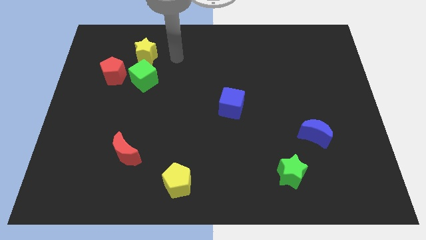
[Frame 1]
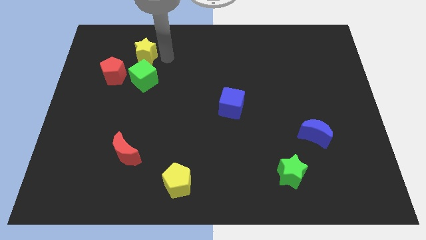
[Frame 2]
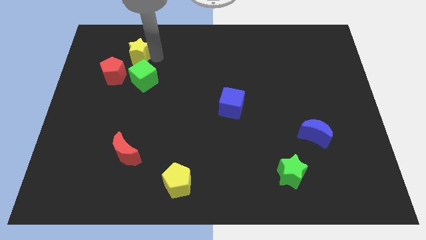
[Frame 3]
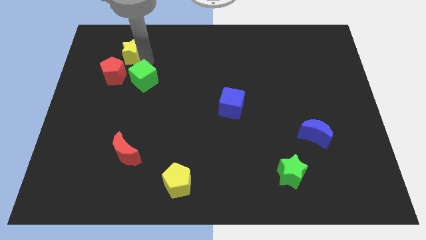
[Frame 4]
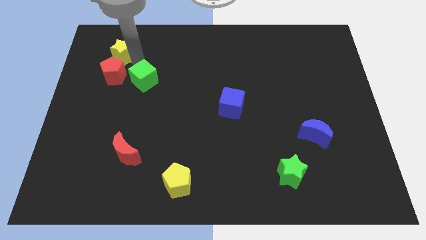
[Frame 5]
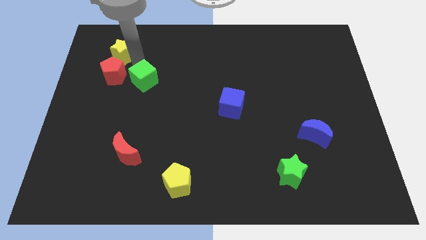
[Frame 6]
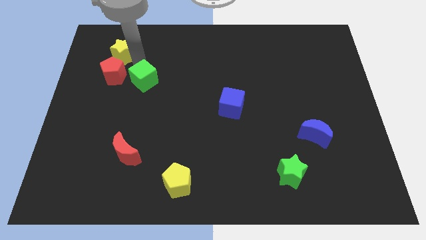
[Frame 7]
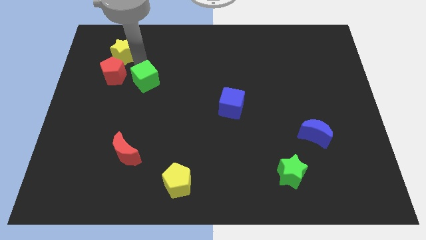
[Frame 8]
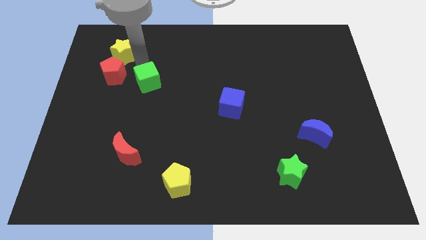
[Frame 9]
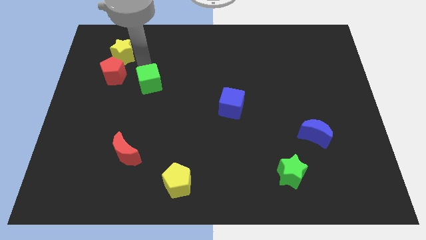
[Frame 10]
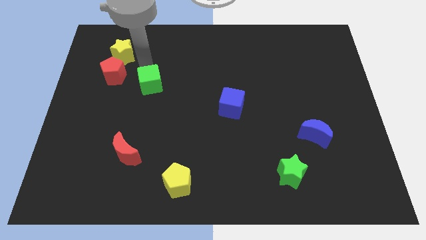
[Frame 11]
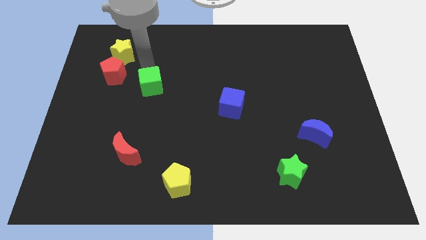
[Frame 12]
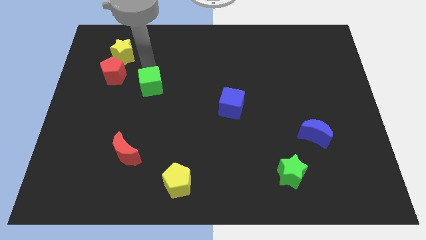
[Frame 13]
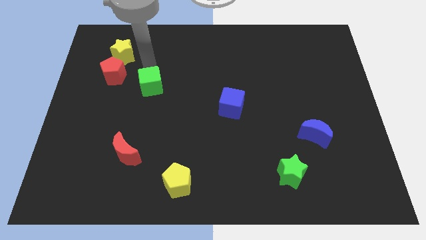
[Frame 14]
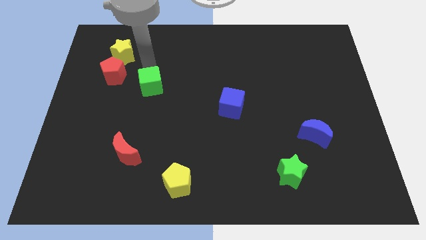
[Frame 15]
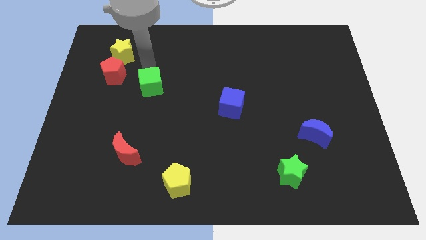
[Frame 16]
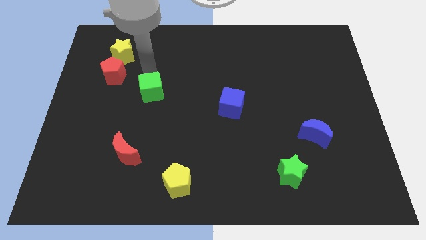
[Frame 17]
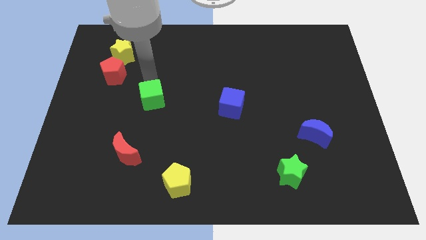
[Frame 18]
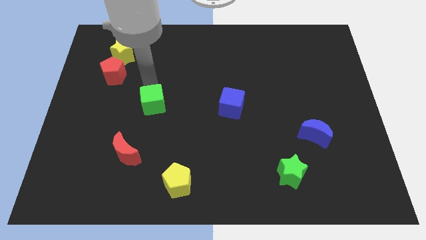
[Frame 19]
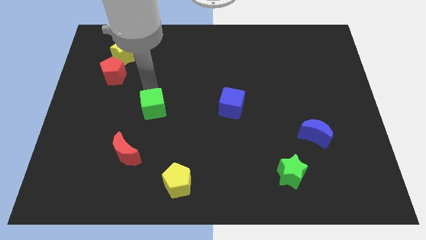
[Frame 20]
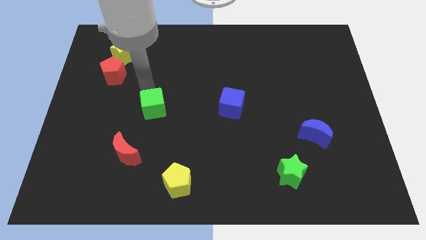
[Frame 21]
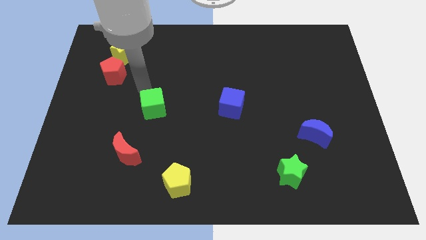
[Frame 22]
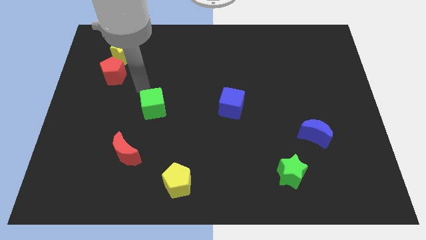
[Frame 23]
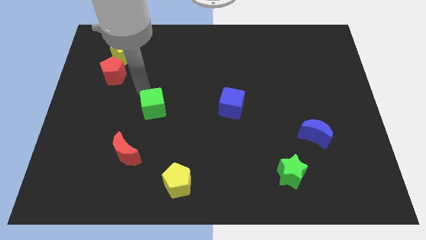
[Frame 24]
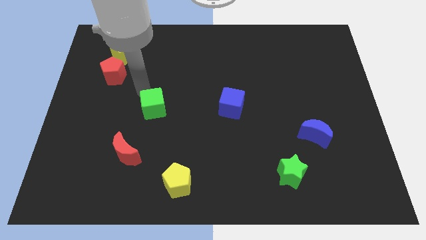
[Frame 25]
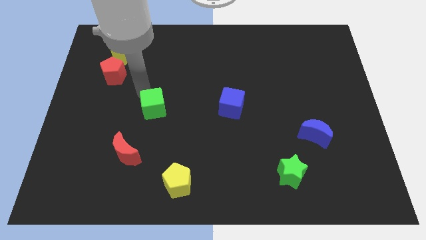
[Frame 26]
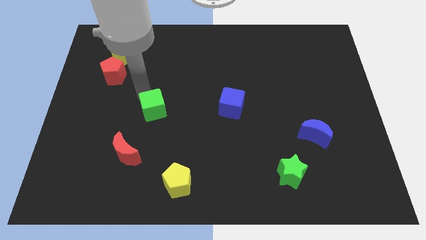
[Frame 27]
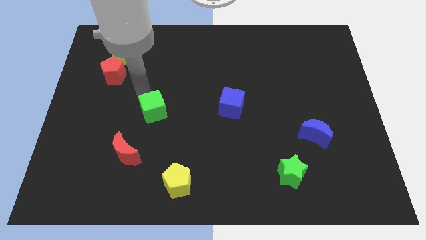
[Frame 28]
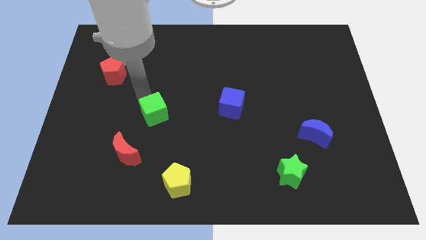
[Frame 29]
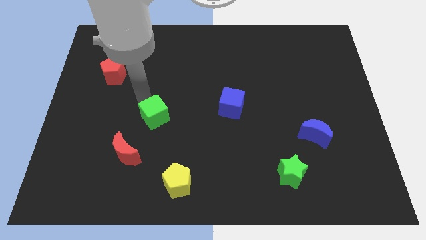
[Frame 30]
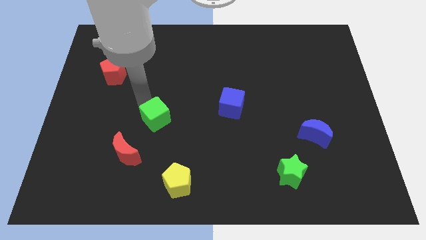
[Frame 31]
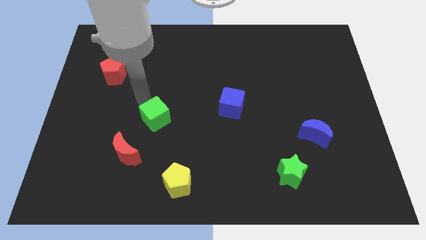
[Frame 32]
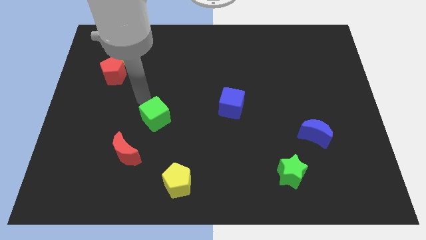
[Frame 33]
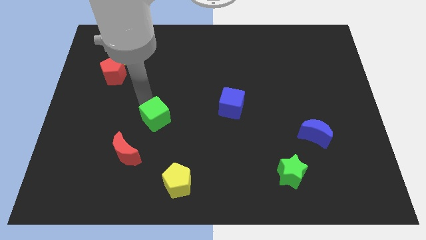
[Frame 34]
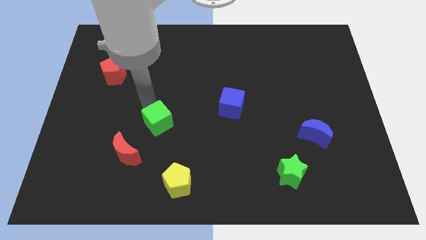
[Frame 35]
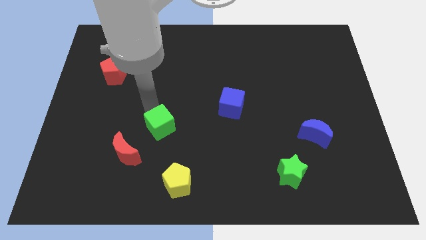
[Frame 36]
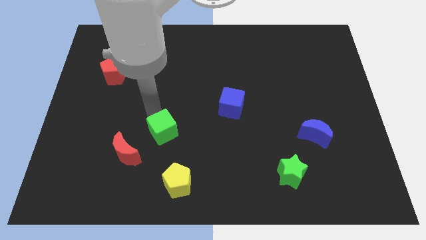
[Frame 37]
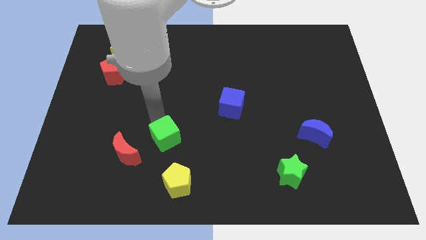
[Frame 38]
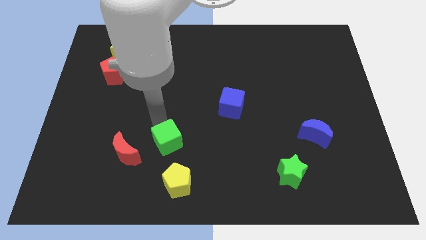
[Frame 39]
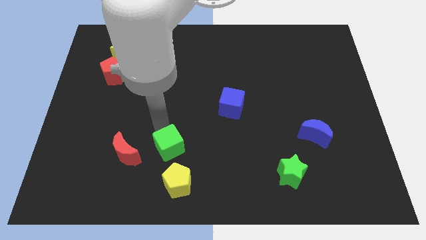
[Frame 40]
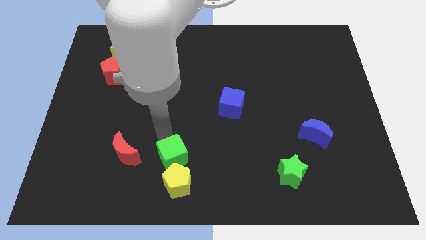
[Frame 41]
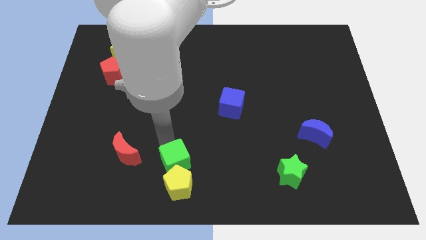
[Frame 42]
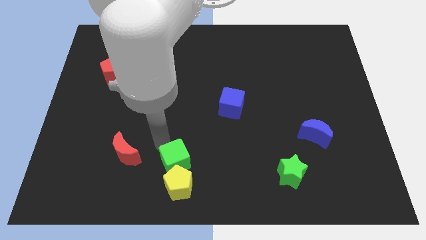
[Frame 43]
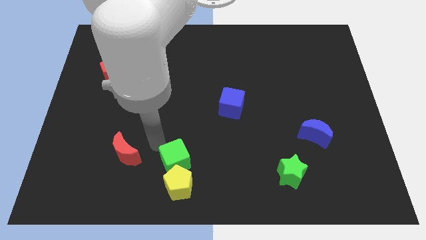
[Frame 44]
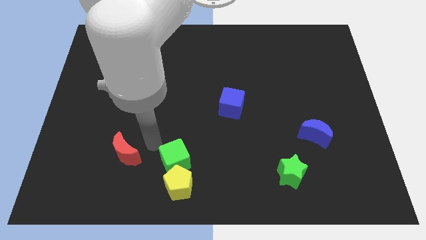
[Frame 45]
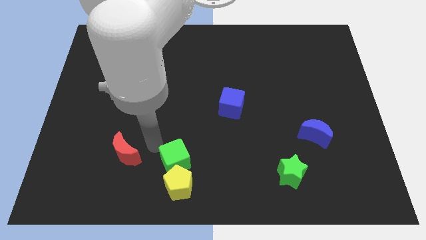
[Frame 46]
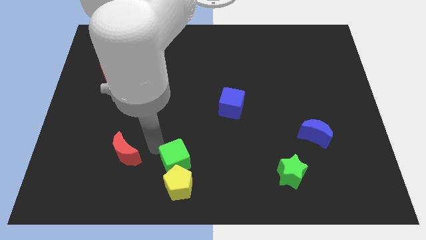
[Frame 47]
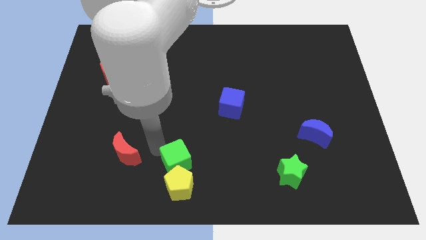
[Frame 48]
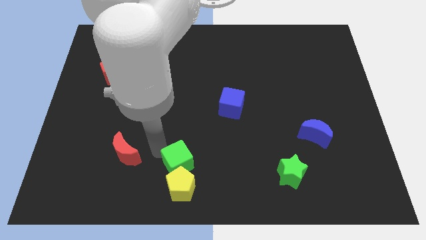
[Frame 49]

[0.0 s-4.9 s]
slide the green cube to the bottom

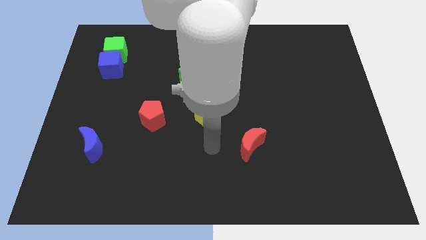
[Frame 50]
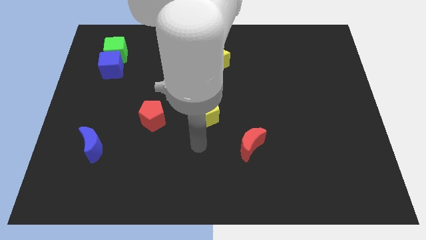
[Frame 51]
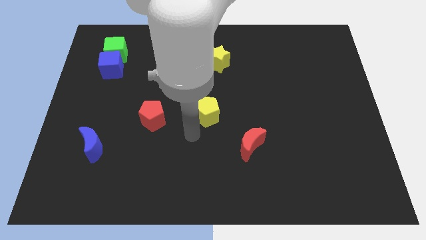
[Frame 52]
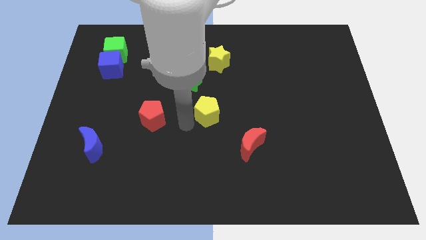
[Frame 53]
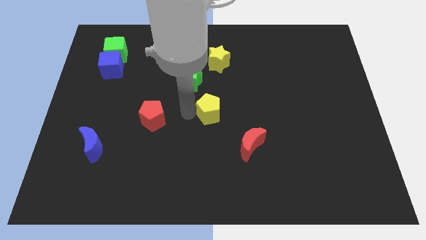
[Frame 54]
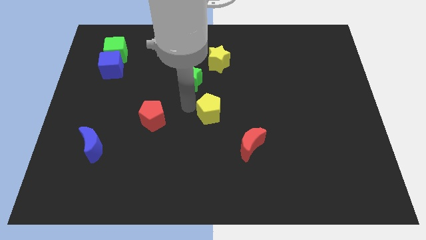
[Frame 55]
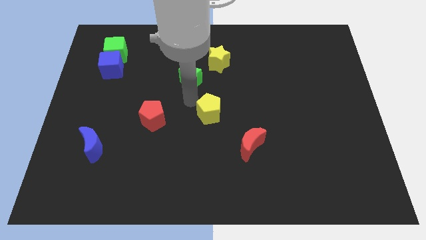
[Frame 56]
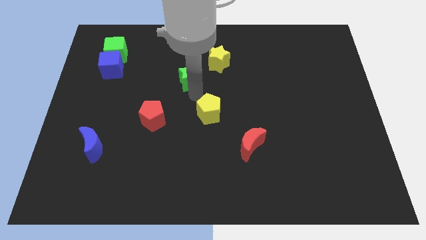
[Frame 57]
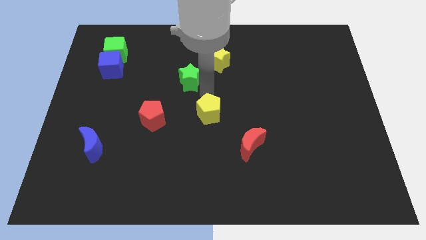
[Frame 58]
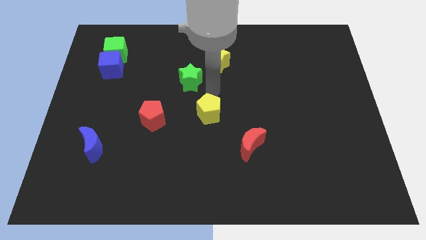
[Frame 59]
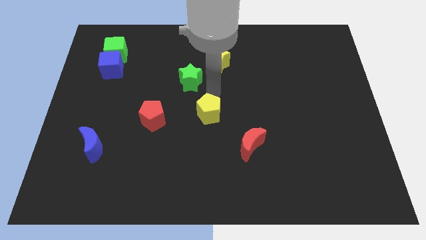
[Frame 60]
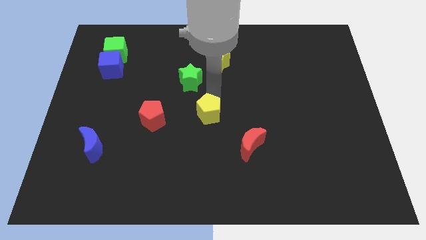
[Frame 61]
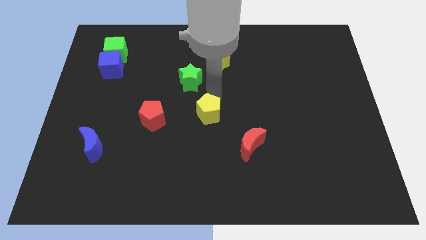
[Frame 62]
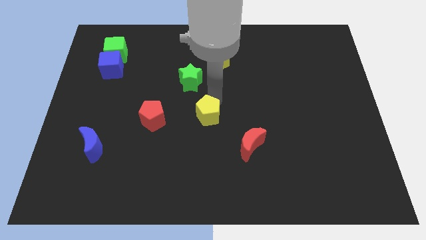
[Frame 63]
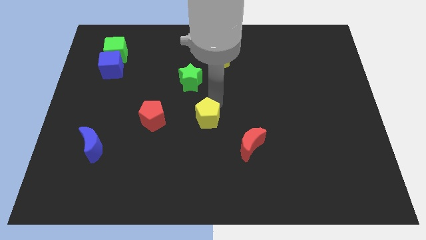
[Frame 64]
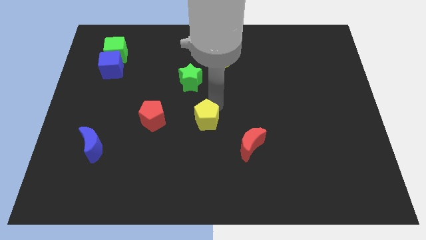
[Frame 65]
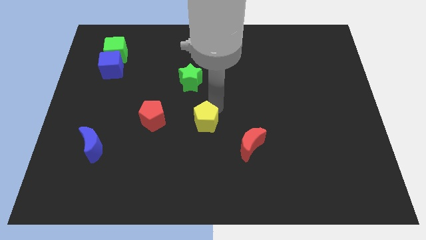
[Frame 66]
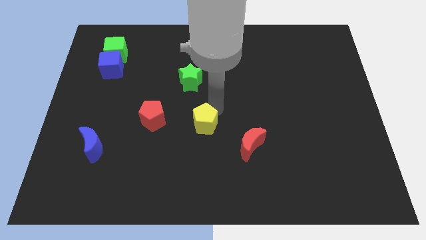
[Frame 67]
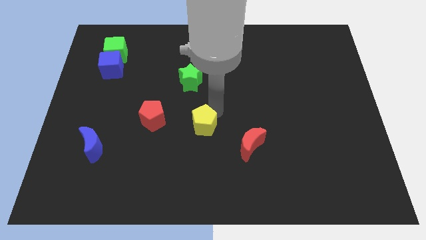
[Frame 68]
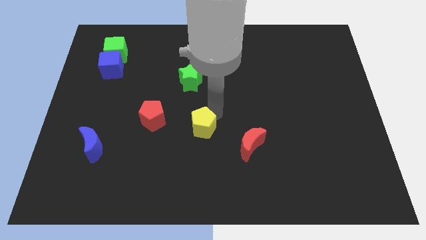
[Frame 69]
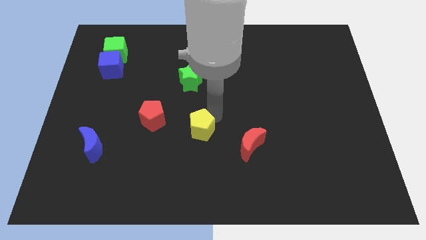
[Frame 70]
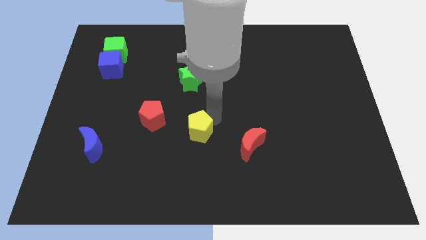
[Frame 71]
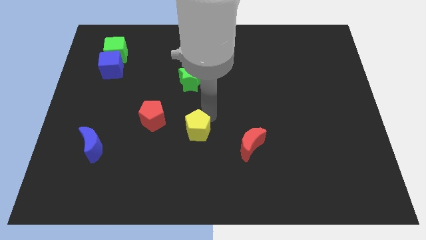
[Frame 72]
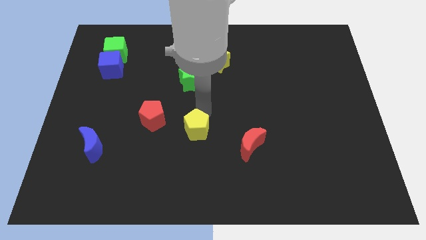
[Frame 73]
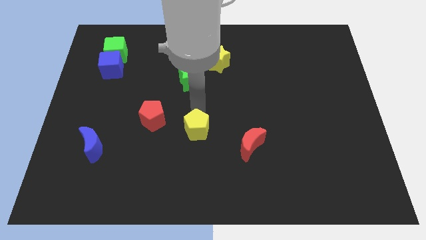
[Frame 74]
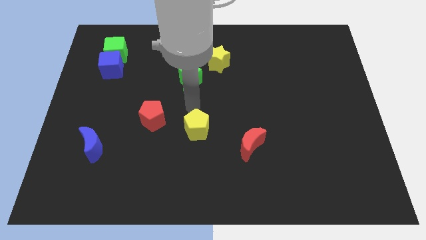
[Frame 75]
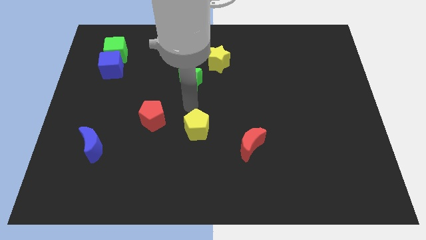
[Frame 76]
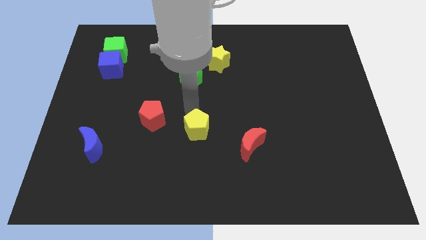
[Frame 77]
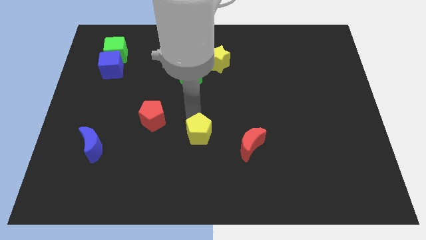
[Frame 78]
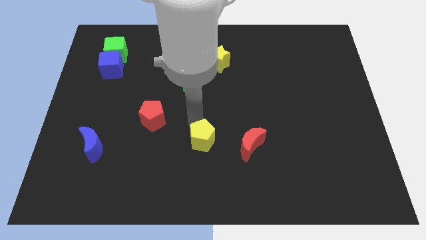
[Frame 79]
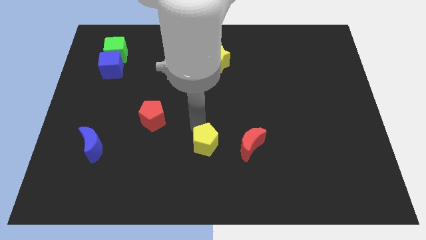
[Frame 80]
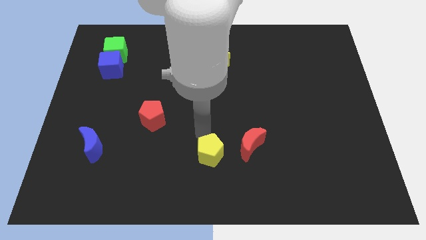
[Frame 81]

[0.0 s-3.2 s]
move the yellow pentagon to the bottom
